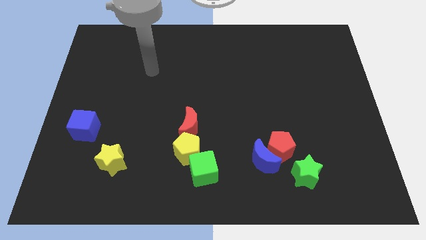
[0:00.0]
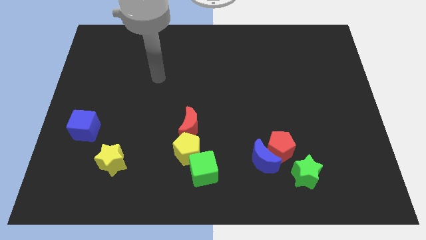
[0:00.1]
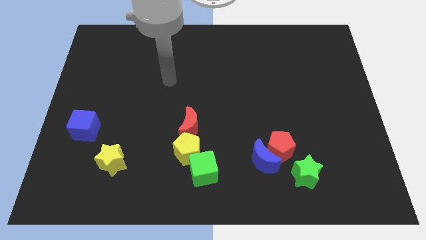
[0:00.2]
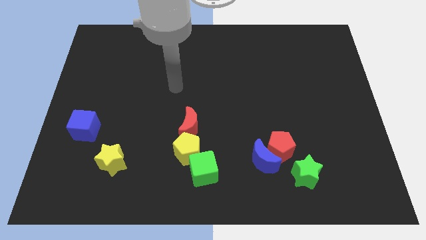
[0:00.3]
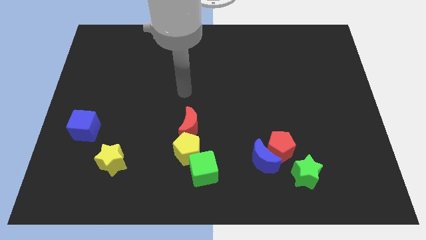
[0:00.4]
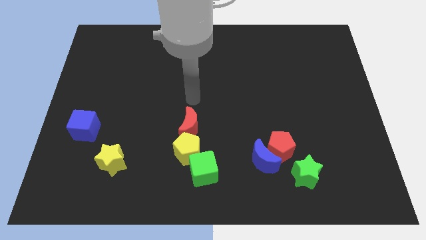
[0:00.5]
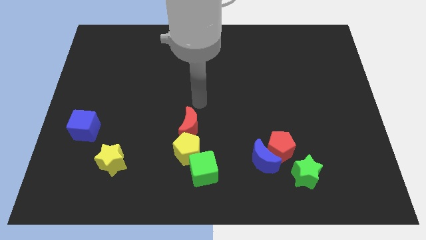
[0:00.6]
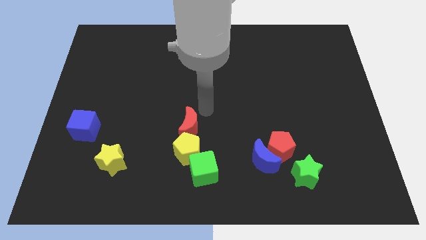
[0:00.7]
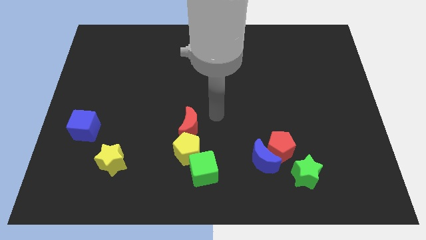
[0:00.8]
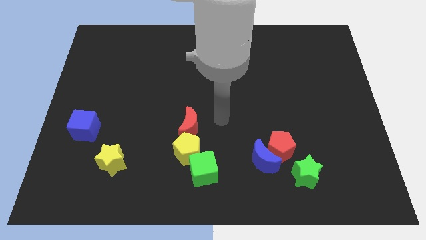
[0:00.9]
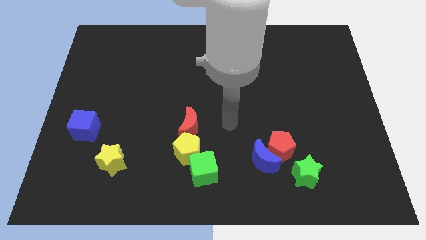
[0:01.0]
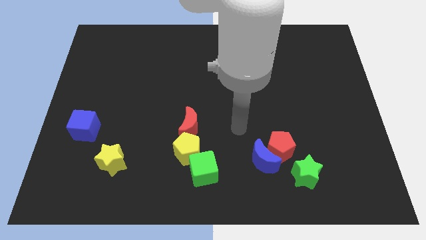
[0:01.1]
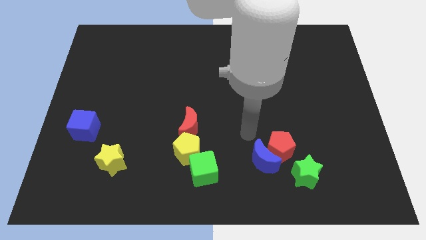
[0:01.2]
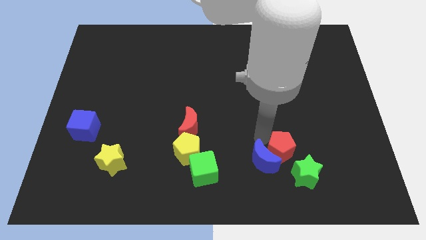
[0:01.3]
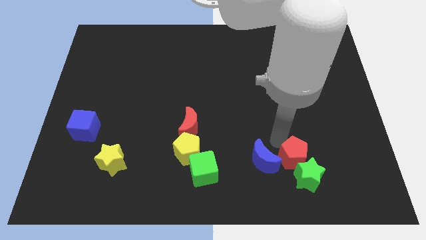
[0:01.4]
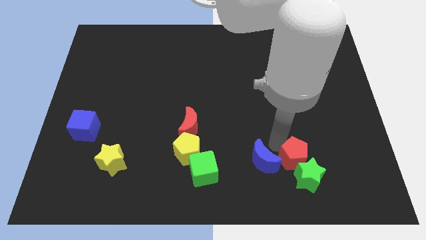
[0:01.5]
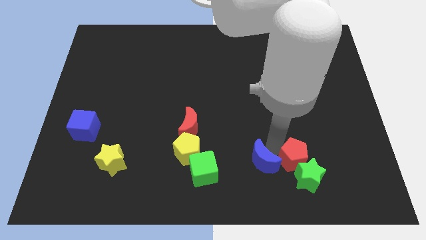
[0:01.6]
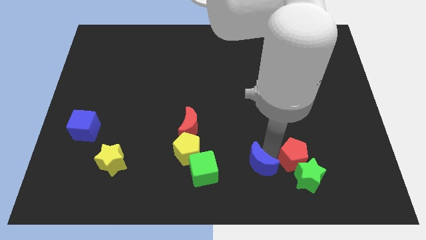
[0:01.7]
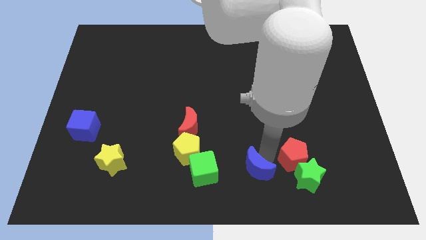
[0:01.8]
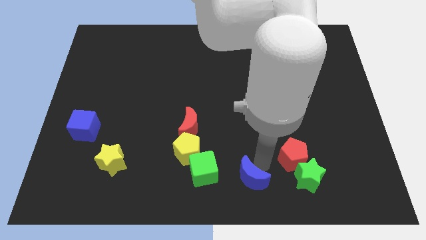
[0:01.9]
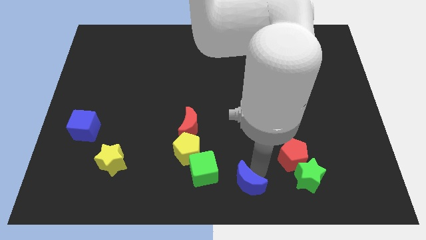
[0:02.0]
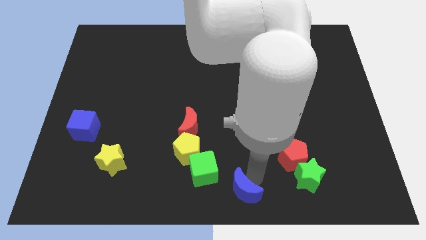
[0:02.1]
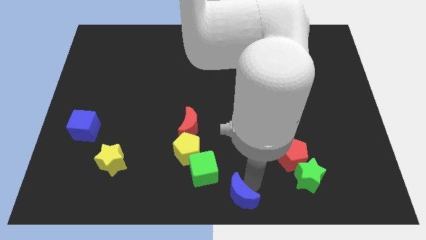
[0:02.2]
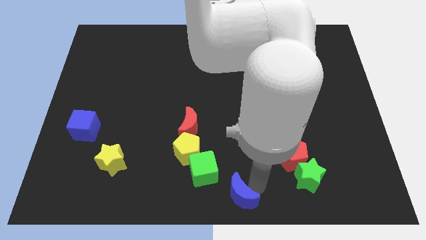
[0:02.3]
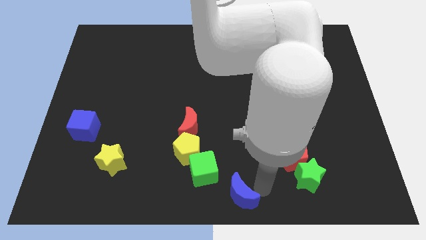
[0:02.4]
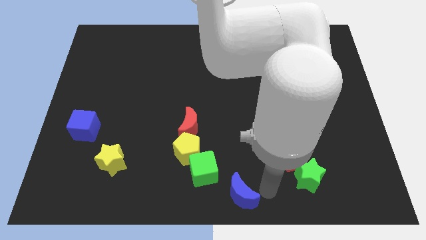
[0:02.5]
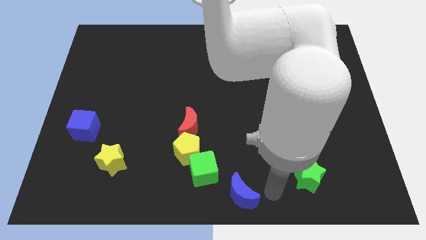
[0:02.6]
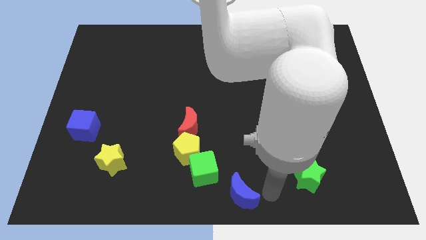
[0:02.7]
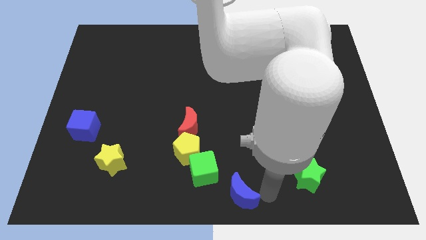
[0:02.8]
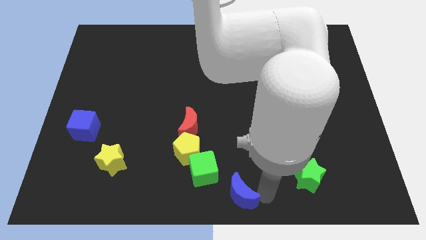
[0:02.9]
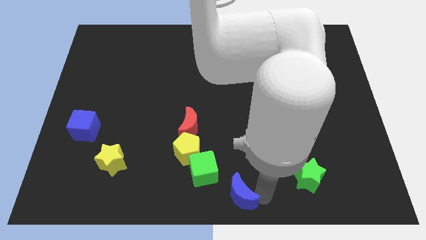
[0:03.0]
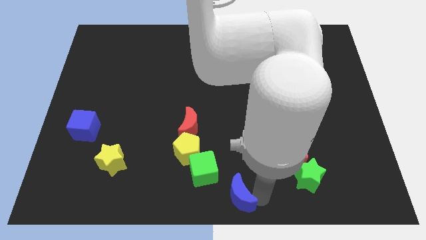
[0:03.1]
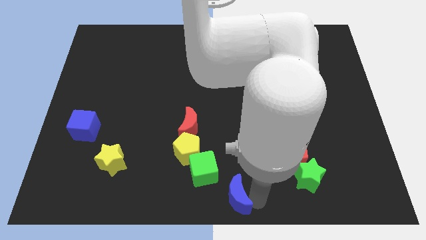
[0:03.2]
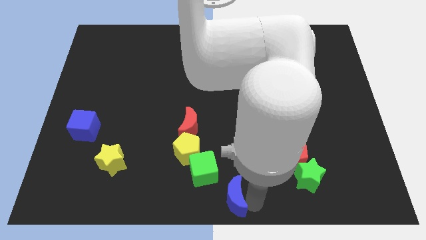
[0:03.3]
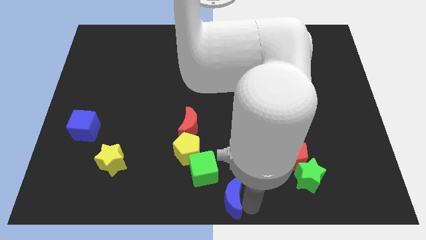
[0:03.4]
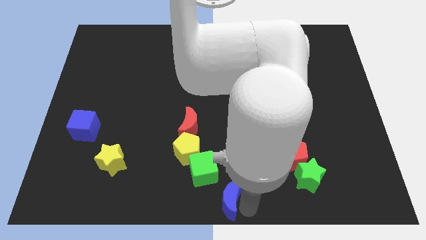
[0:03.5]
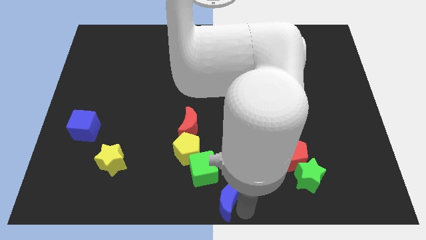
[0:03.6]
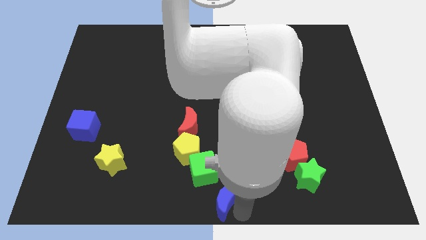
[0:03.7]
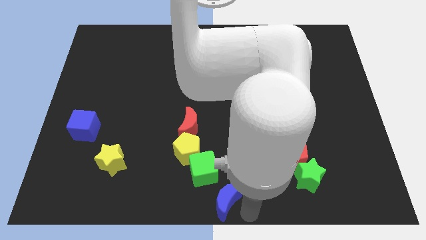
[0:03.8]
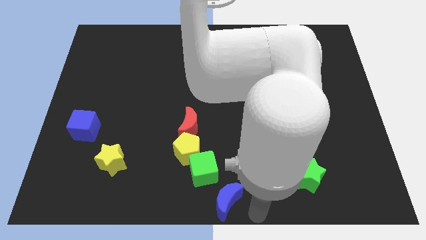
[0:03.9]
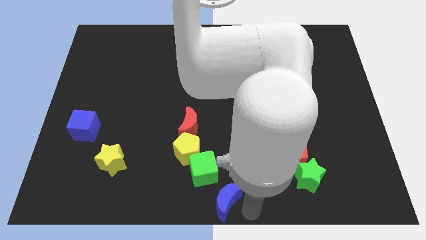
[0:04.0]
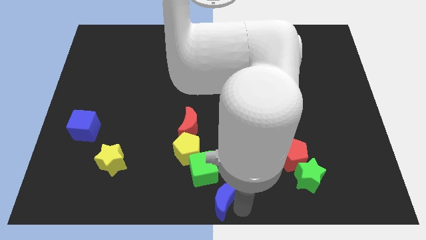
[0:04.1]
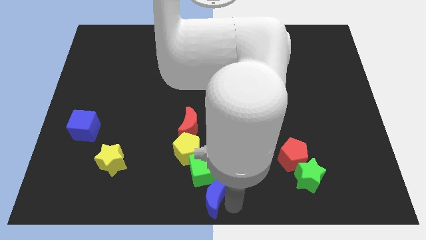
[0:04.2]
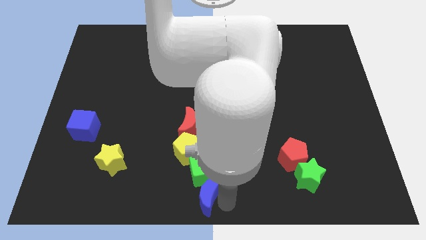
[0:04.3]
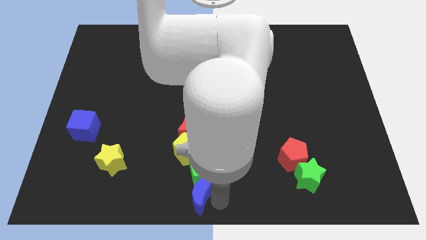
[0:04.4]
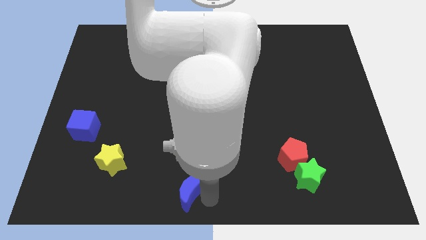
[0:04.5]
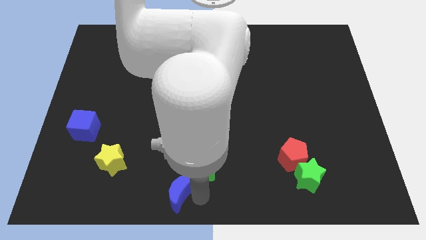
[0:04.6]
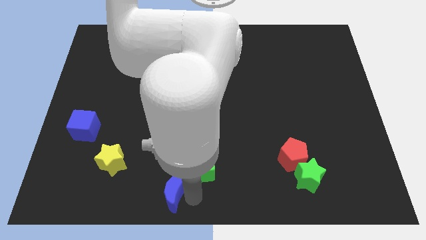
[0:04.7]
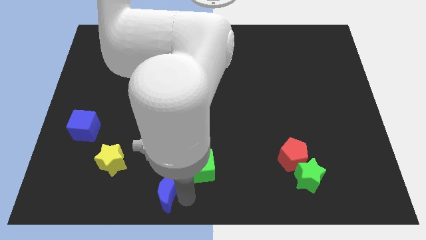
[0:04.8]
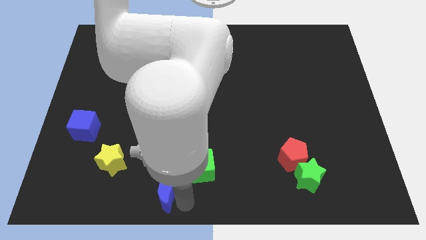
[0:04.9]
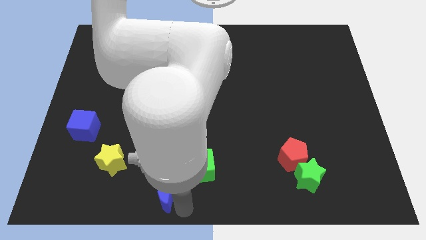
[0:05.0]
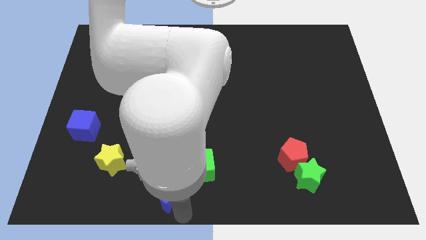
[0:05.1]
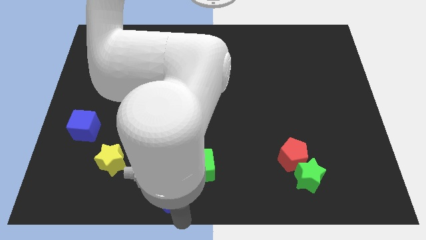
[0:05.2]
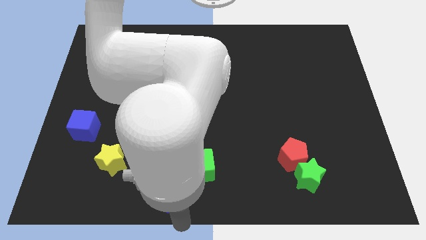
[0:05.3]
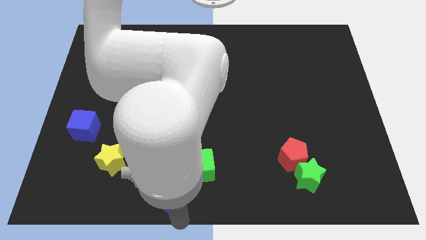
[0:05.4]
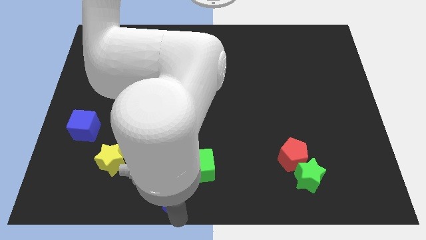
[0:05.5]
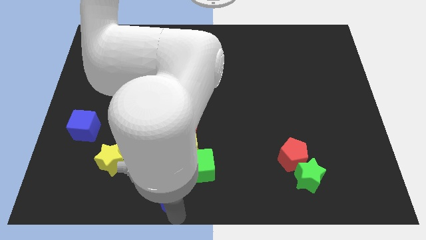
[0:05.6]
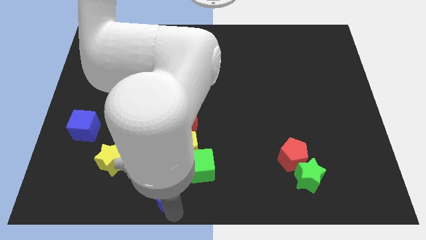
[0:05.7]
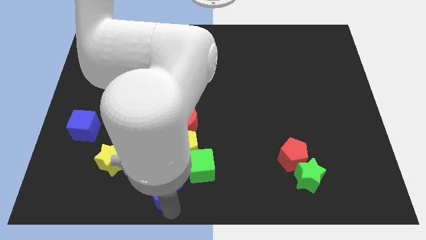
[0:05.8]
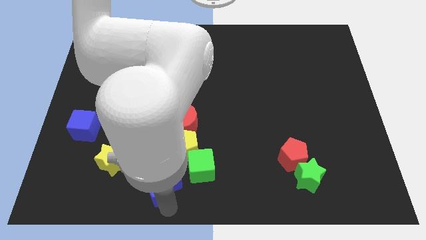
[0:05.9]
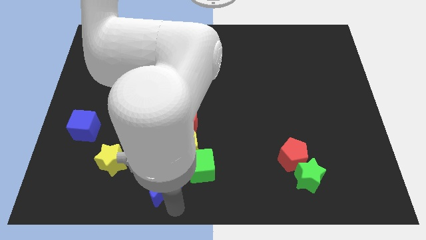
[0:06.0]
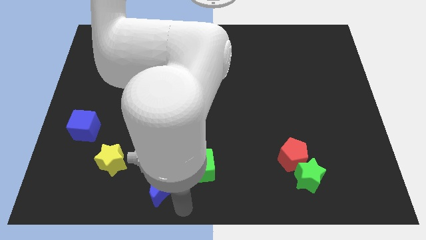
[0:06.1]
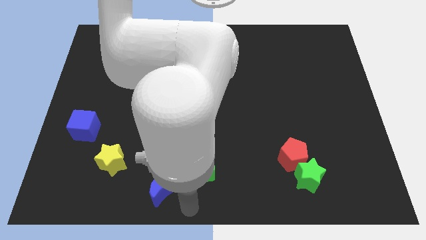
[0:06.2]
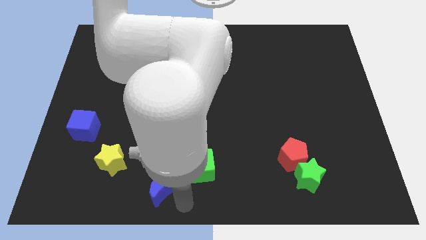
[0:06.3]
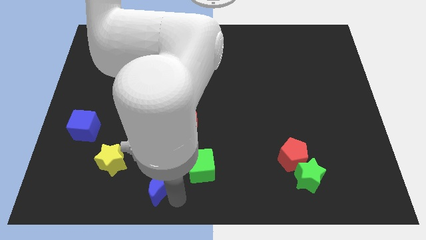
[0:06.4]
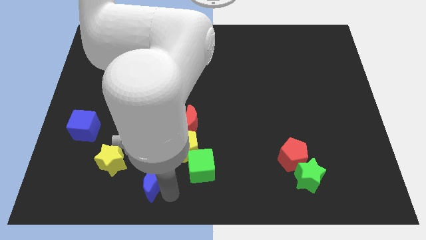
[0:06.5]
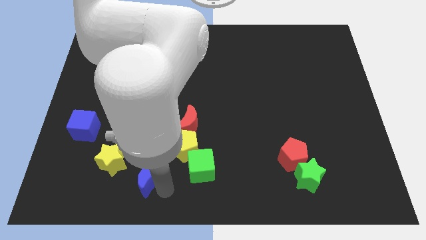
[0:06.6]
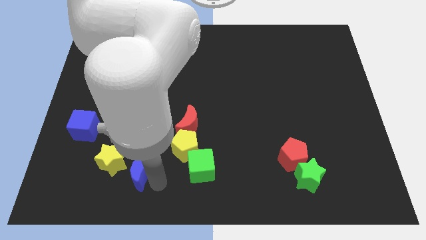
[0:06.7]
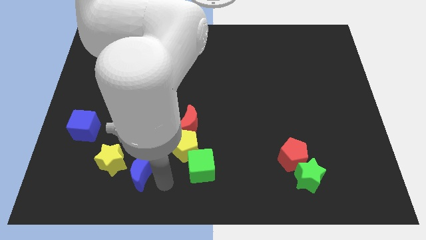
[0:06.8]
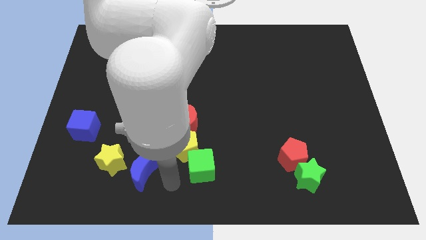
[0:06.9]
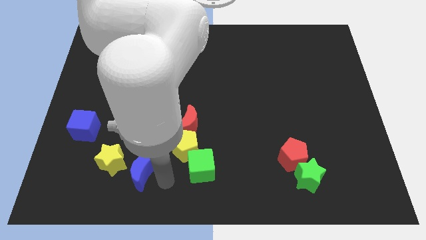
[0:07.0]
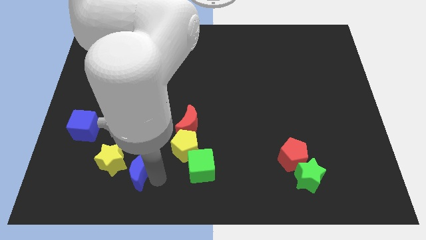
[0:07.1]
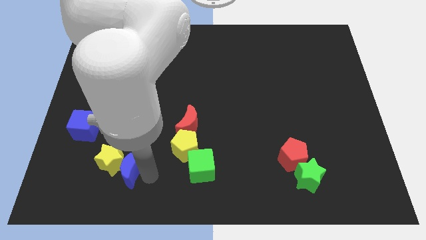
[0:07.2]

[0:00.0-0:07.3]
push the blue moon towards the yellow star

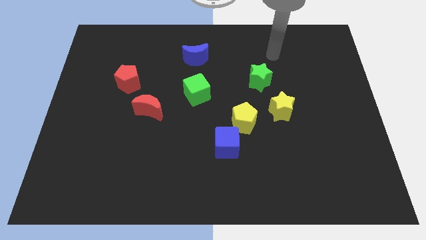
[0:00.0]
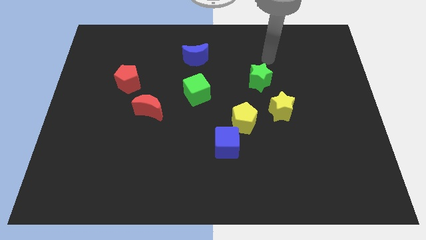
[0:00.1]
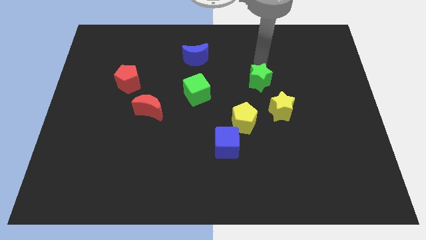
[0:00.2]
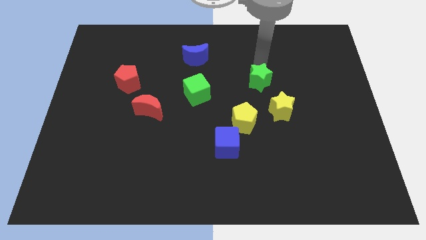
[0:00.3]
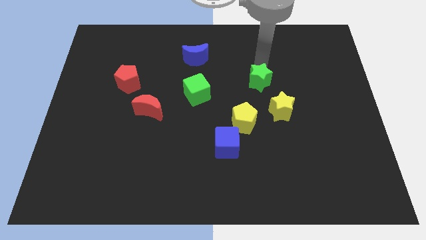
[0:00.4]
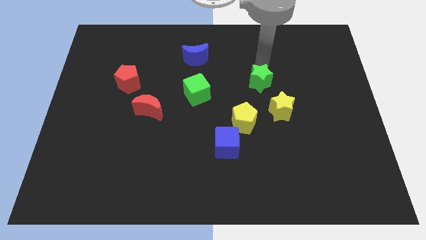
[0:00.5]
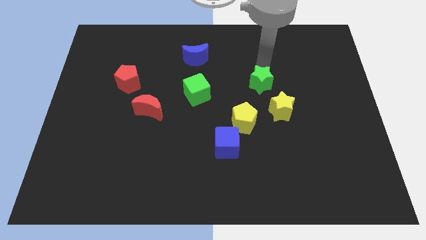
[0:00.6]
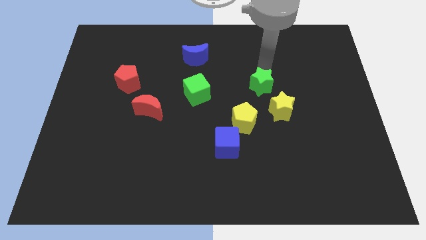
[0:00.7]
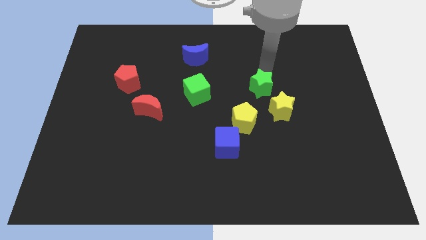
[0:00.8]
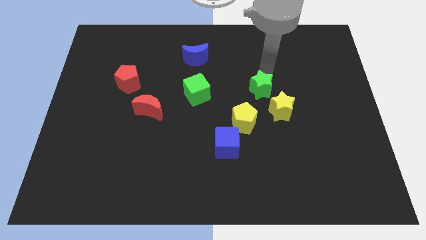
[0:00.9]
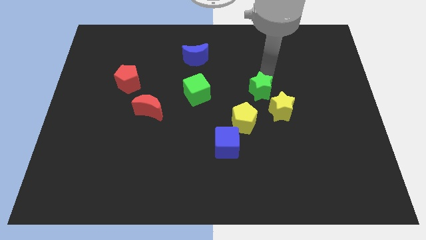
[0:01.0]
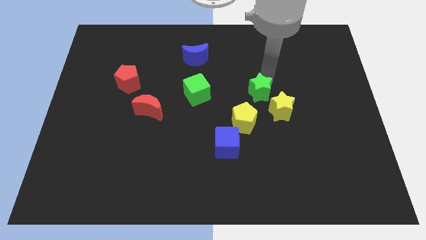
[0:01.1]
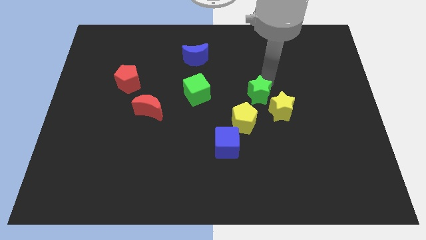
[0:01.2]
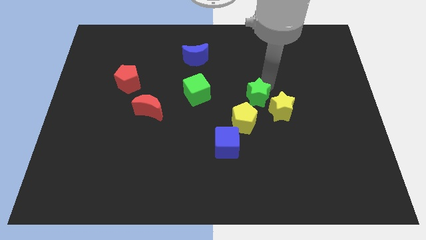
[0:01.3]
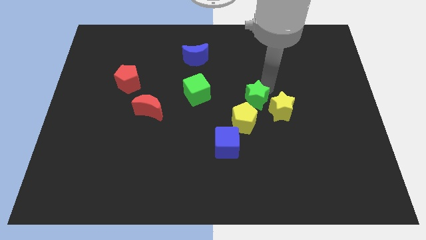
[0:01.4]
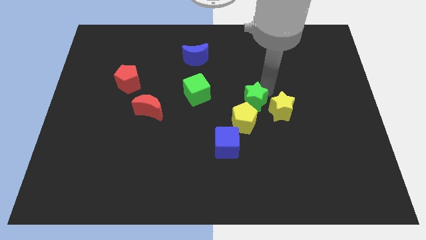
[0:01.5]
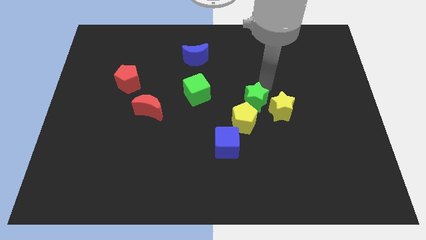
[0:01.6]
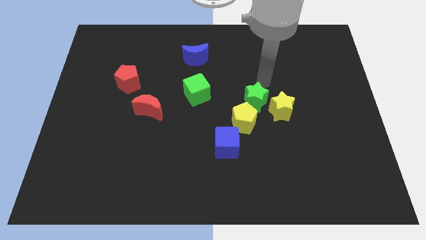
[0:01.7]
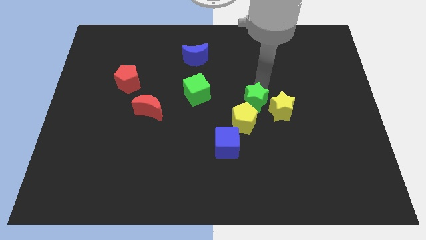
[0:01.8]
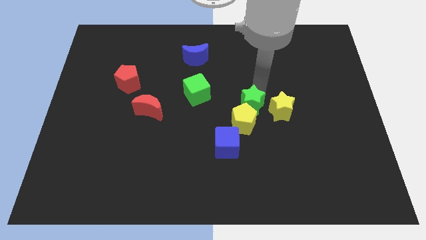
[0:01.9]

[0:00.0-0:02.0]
slide the green star close to the yellow pentagon
